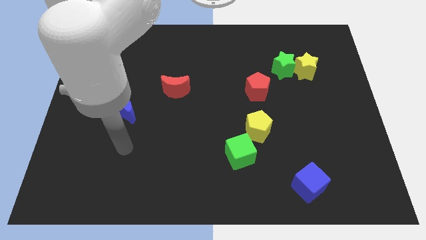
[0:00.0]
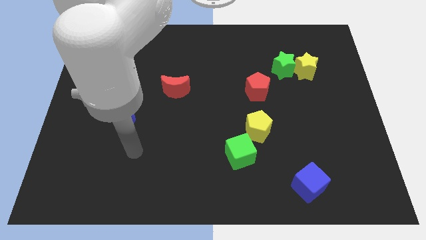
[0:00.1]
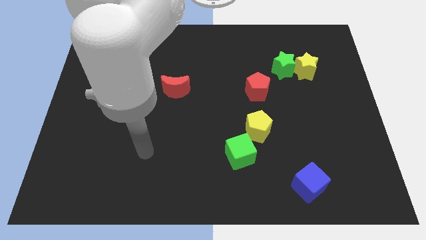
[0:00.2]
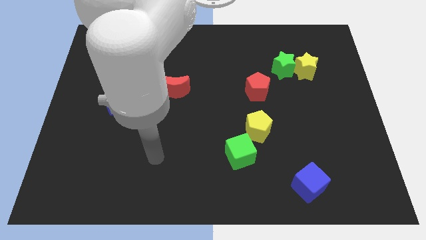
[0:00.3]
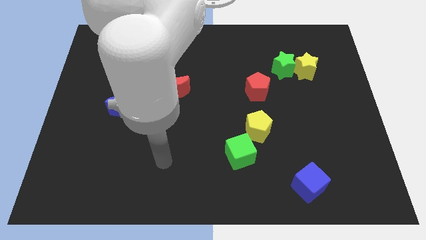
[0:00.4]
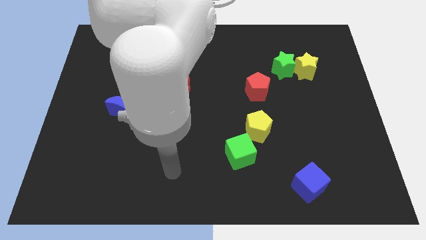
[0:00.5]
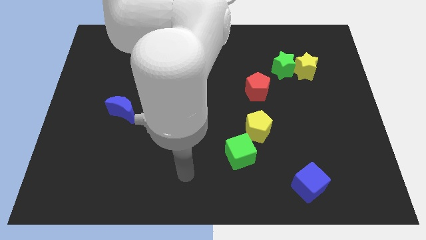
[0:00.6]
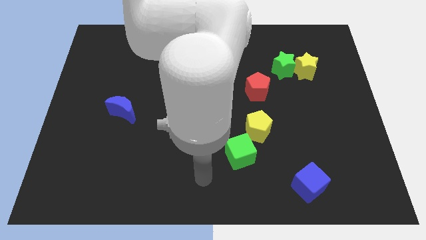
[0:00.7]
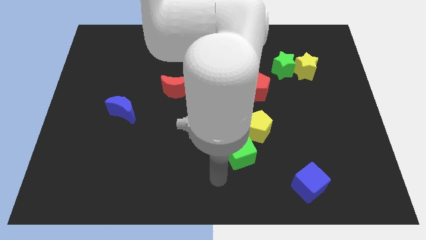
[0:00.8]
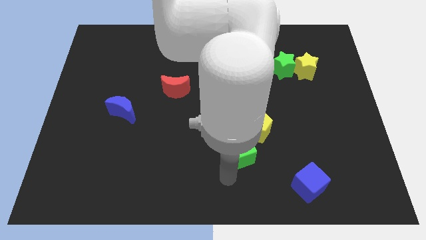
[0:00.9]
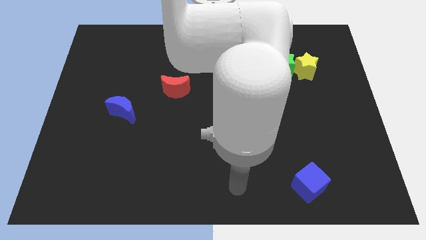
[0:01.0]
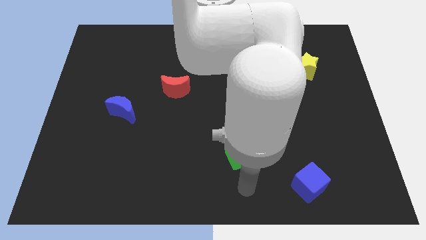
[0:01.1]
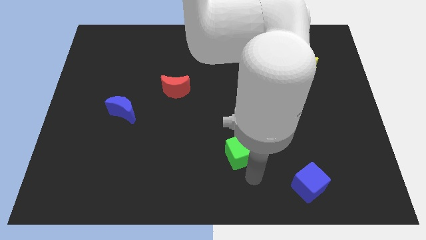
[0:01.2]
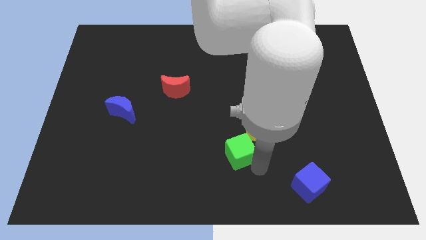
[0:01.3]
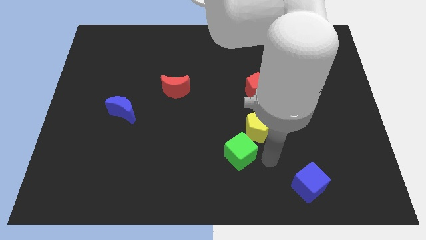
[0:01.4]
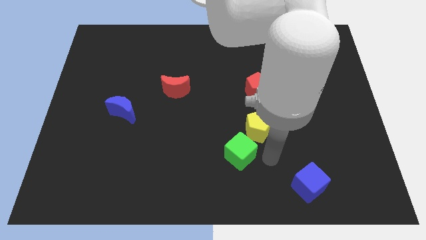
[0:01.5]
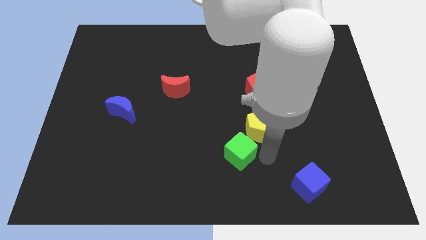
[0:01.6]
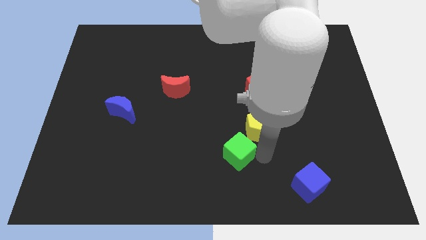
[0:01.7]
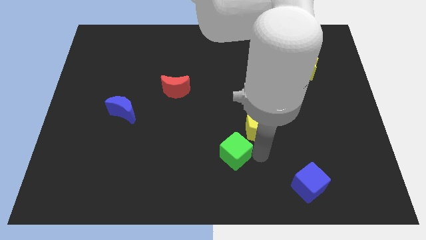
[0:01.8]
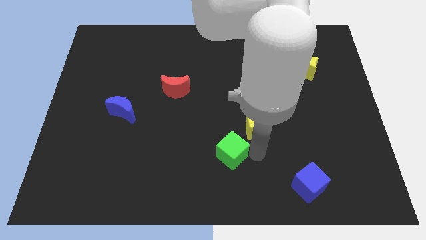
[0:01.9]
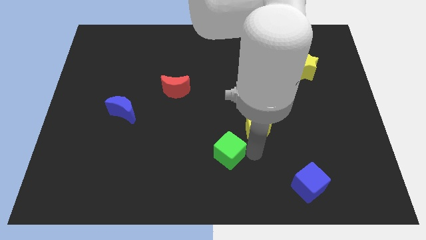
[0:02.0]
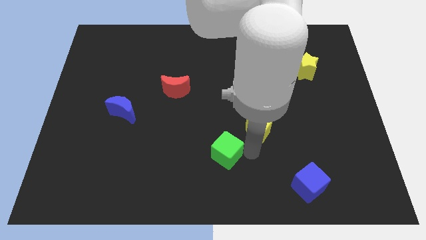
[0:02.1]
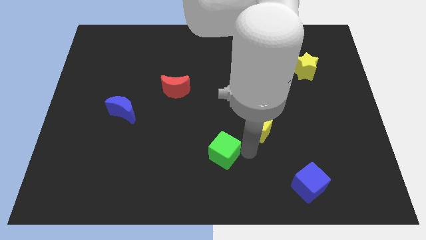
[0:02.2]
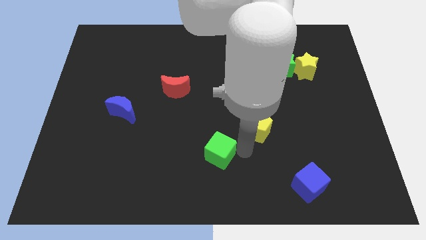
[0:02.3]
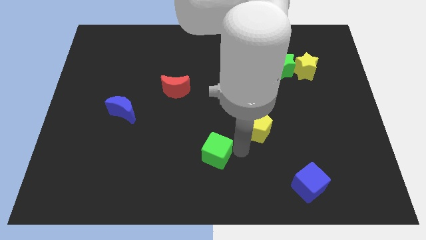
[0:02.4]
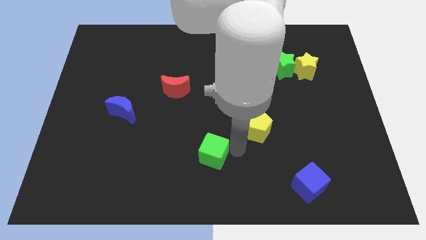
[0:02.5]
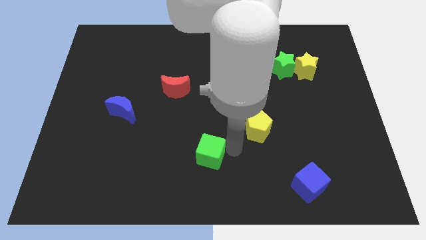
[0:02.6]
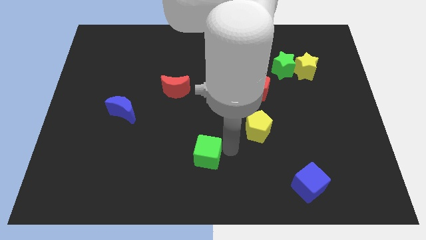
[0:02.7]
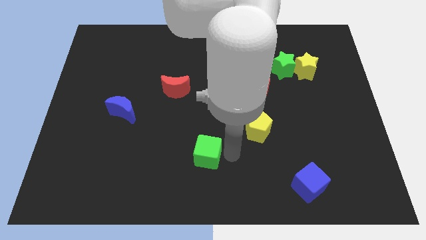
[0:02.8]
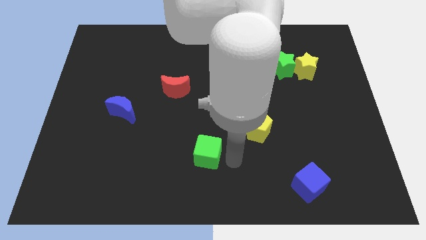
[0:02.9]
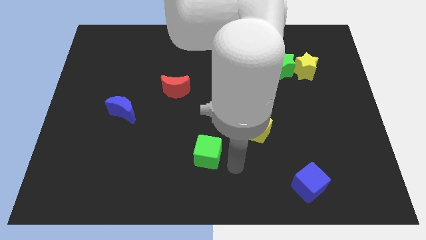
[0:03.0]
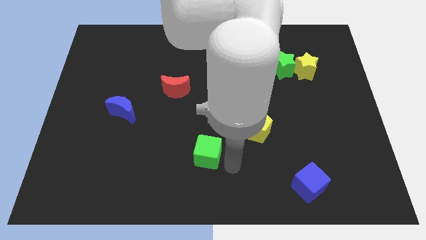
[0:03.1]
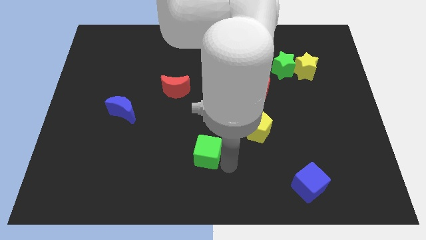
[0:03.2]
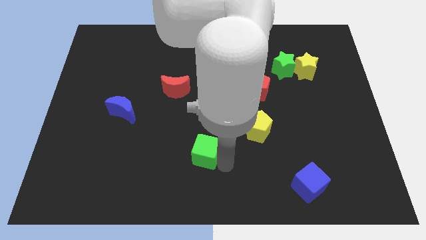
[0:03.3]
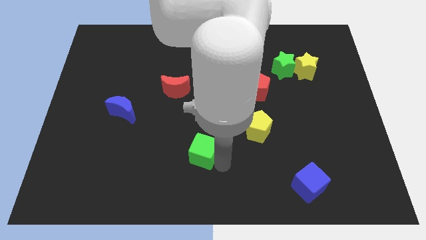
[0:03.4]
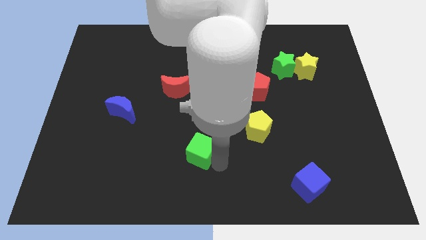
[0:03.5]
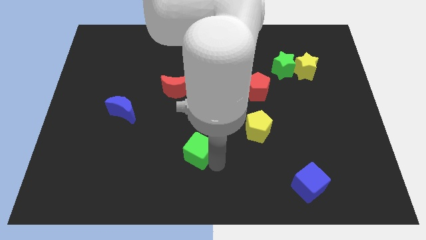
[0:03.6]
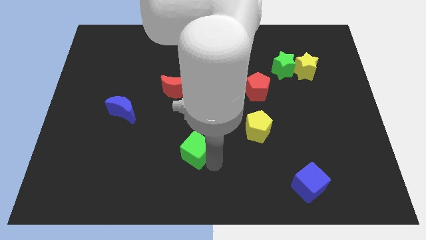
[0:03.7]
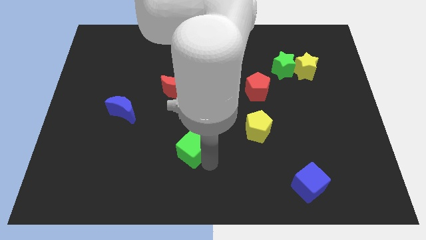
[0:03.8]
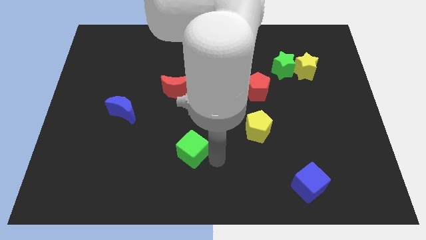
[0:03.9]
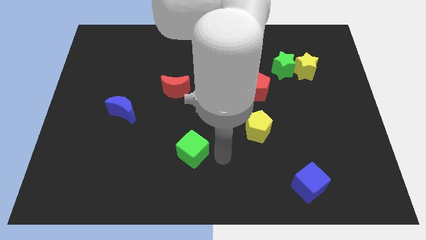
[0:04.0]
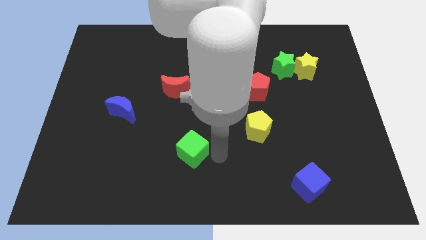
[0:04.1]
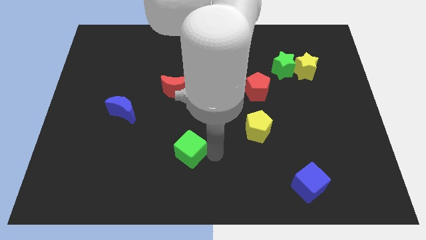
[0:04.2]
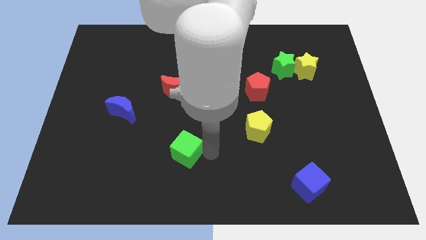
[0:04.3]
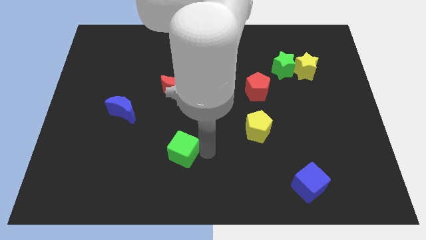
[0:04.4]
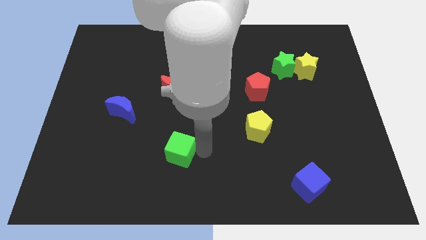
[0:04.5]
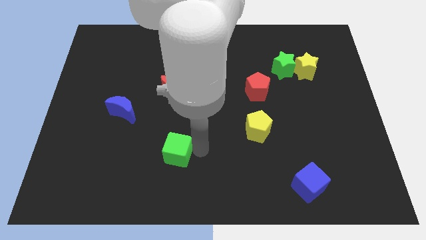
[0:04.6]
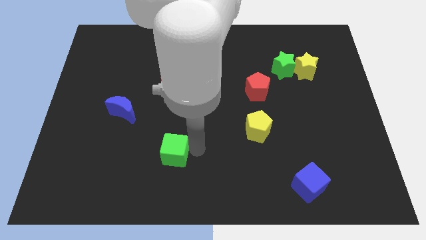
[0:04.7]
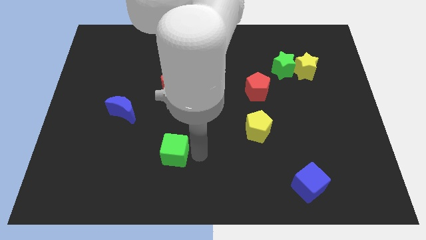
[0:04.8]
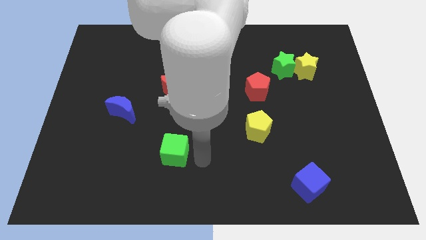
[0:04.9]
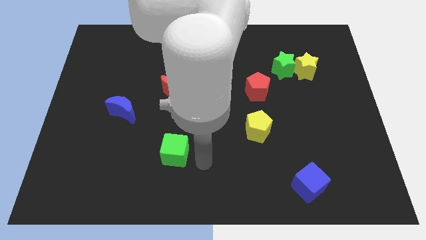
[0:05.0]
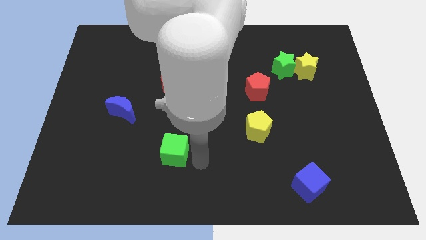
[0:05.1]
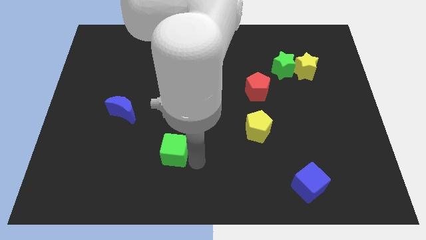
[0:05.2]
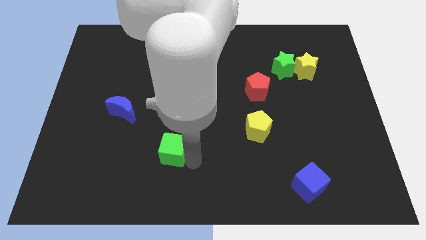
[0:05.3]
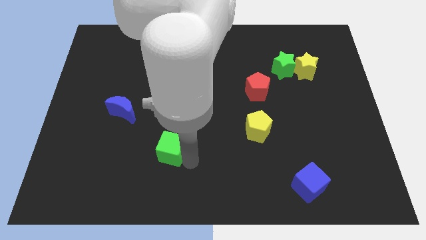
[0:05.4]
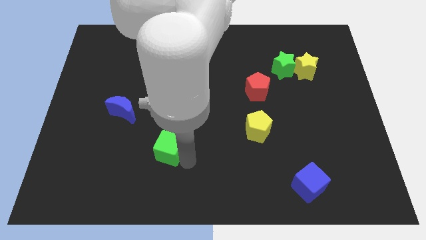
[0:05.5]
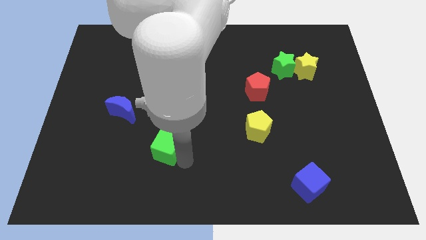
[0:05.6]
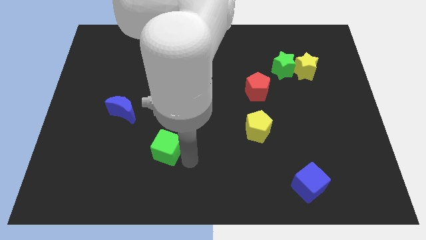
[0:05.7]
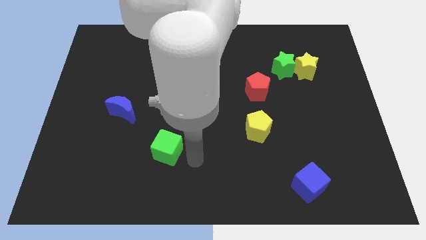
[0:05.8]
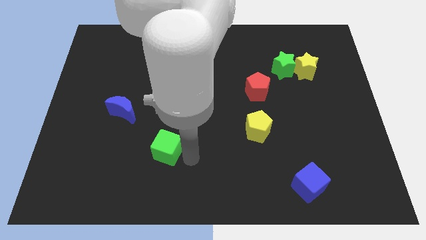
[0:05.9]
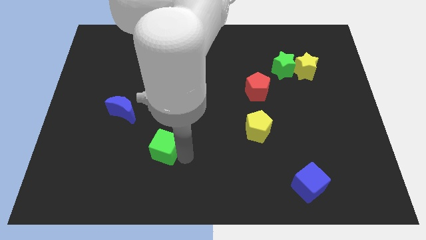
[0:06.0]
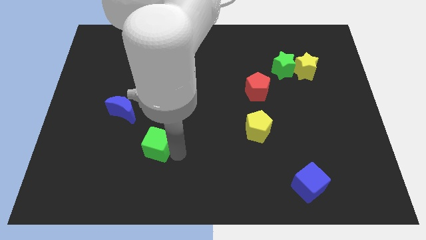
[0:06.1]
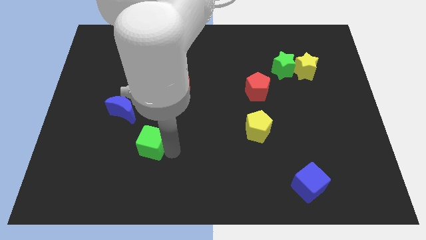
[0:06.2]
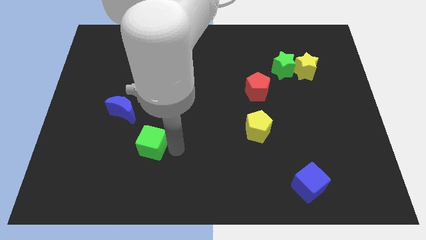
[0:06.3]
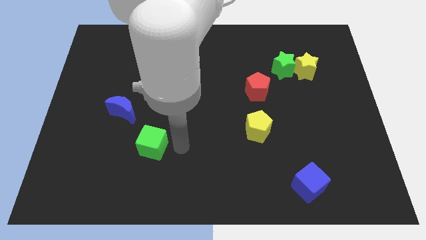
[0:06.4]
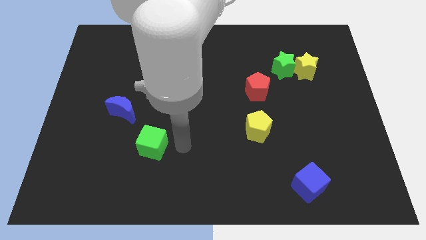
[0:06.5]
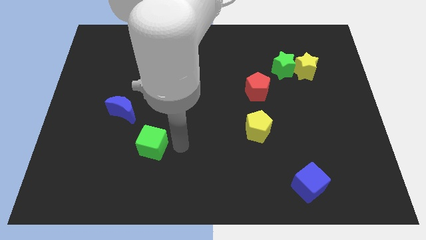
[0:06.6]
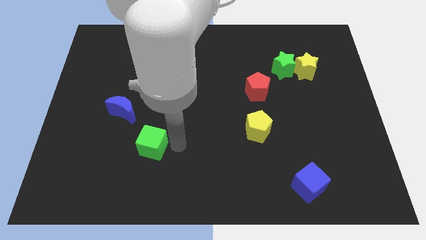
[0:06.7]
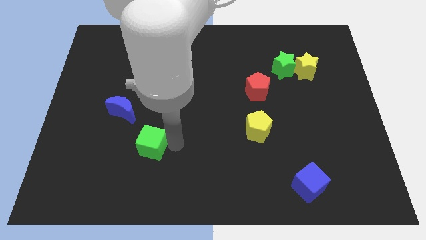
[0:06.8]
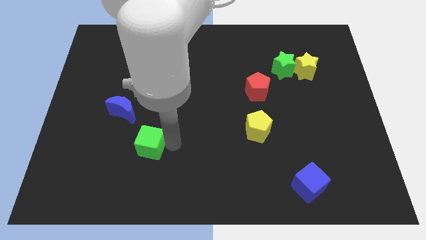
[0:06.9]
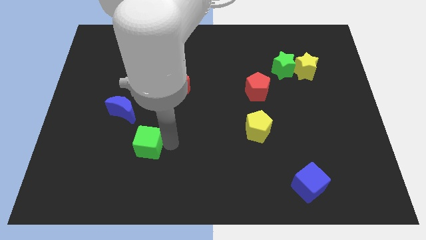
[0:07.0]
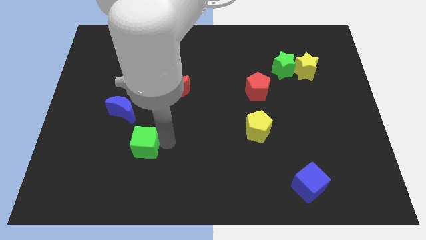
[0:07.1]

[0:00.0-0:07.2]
push the green cube left

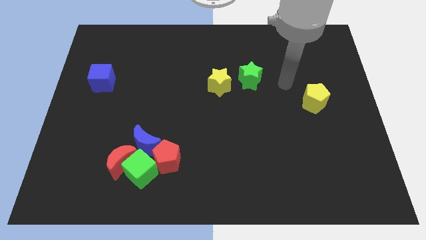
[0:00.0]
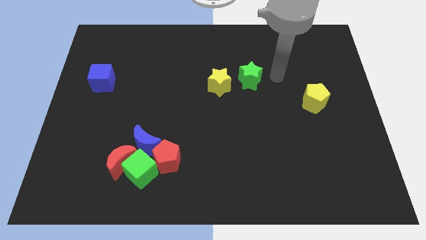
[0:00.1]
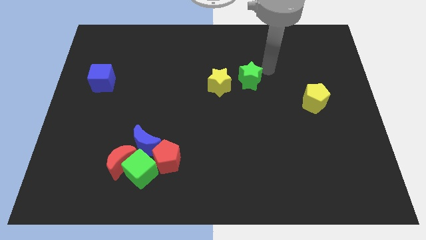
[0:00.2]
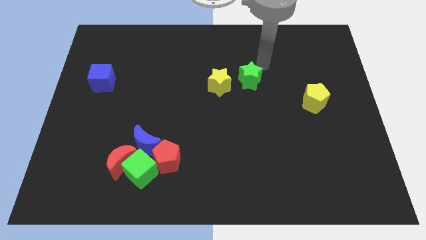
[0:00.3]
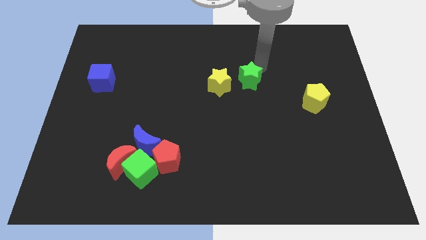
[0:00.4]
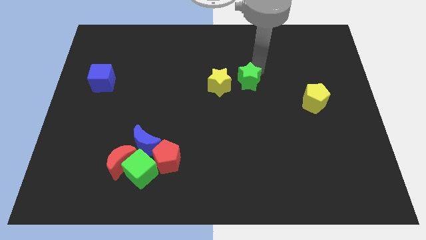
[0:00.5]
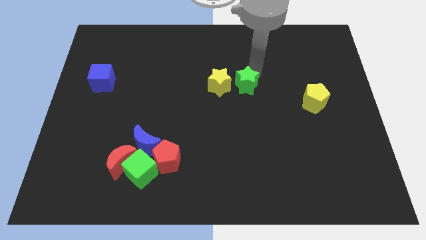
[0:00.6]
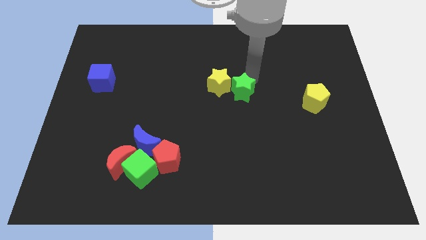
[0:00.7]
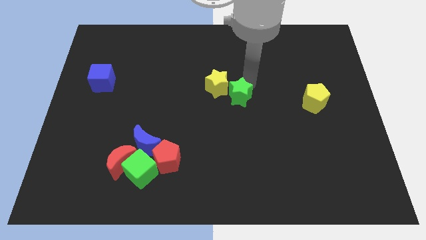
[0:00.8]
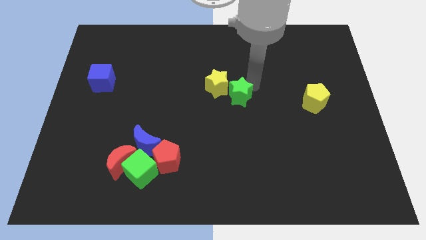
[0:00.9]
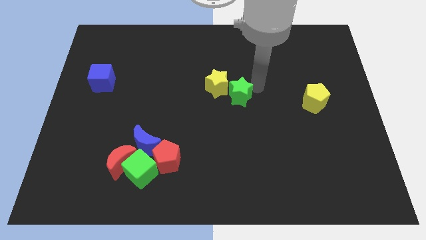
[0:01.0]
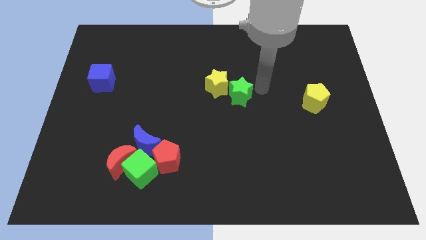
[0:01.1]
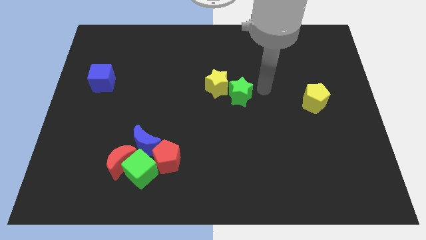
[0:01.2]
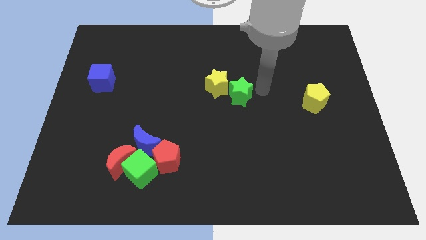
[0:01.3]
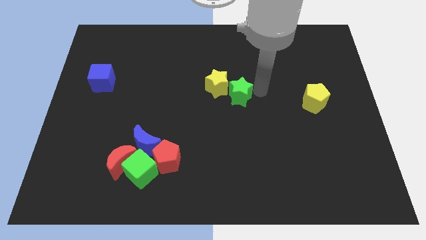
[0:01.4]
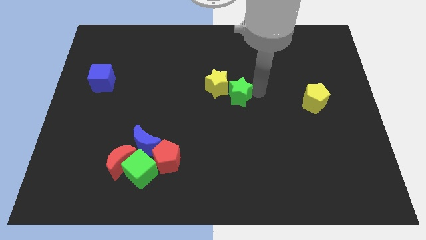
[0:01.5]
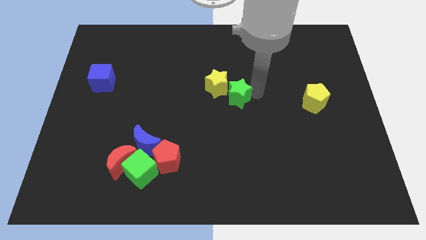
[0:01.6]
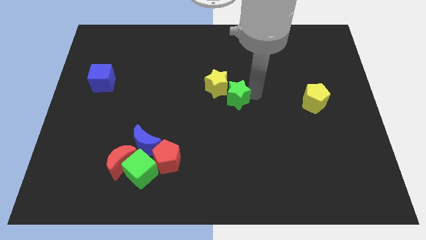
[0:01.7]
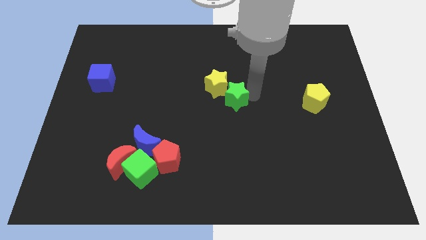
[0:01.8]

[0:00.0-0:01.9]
slide the green star a bit down and to the left
